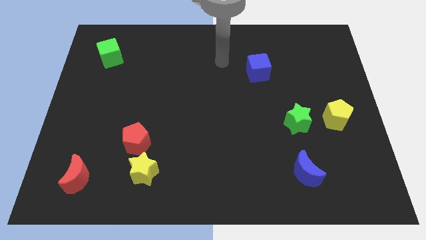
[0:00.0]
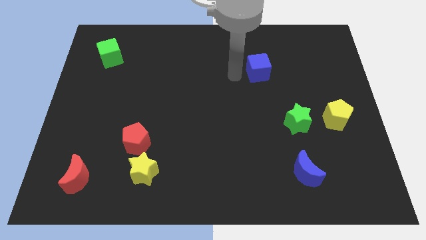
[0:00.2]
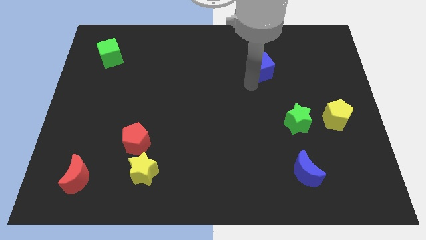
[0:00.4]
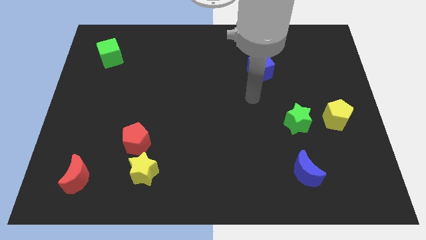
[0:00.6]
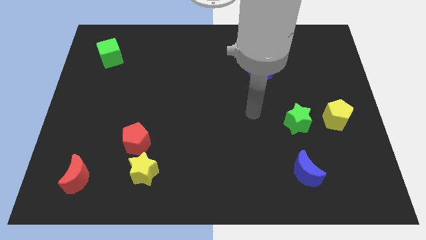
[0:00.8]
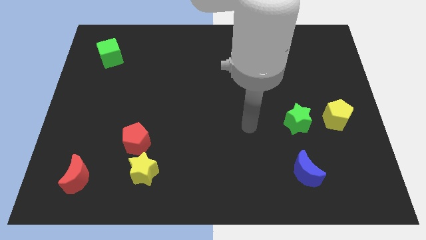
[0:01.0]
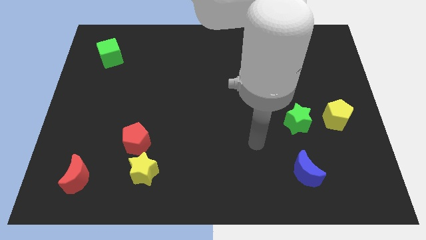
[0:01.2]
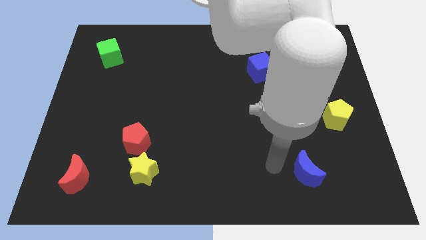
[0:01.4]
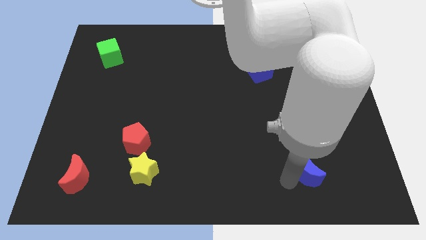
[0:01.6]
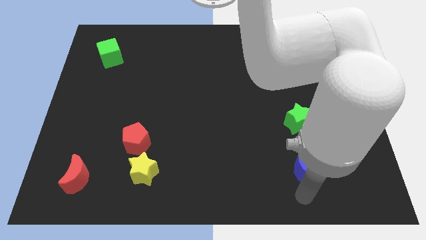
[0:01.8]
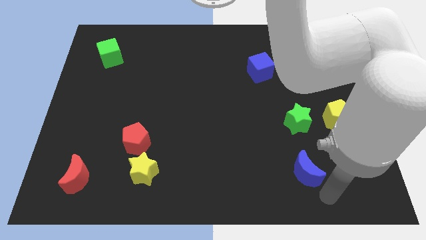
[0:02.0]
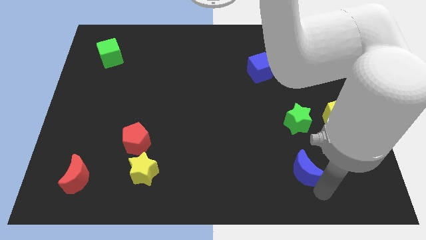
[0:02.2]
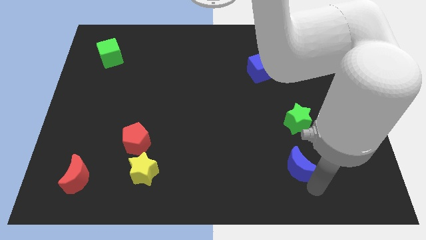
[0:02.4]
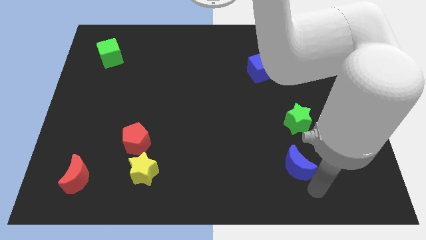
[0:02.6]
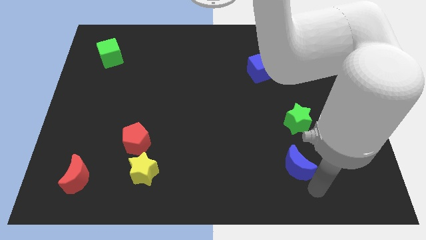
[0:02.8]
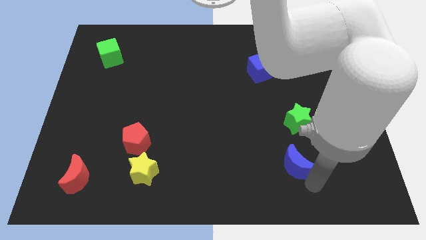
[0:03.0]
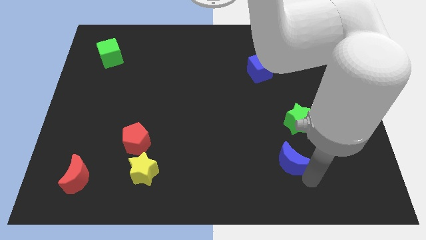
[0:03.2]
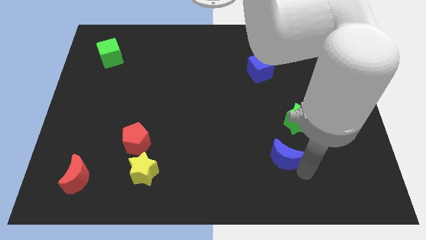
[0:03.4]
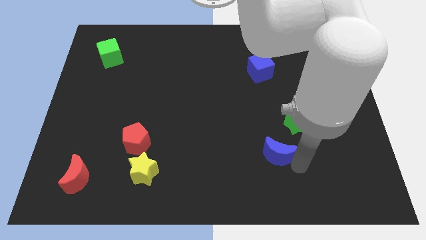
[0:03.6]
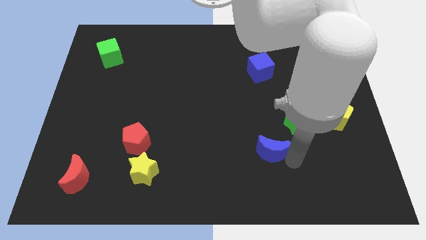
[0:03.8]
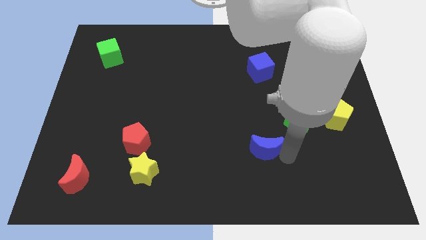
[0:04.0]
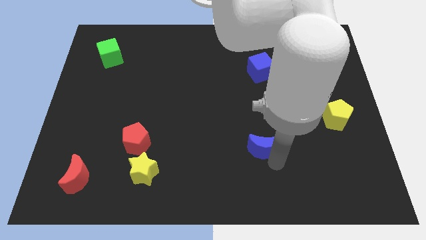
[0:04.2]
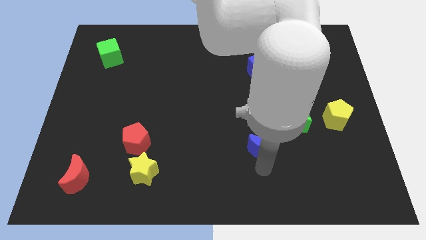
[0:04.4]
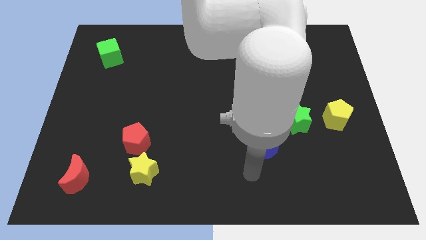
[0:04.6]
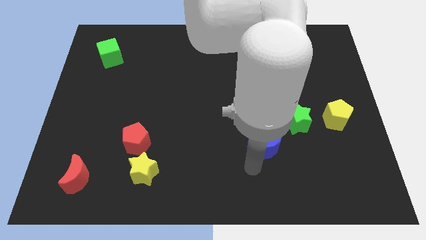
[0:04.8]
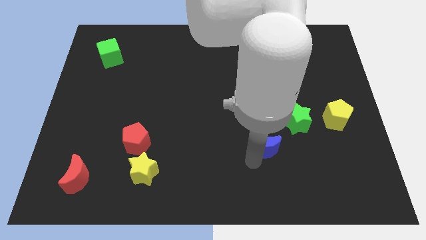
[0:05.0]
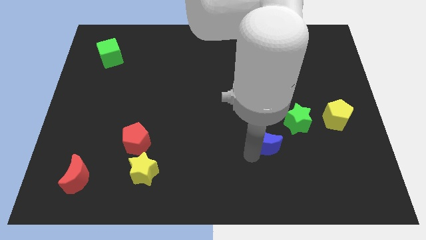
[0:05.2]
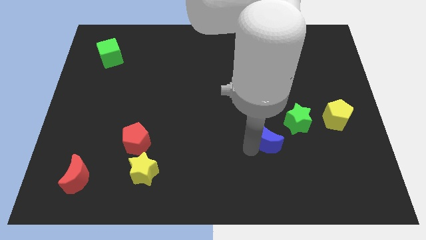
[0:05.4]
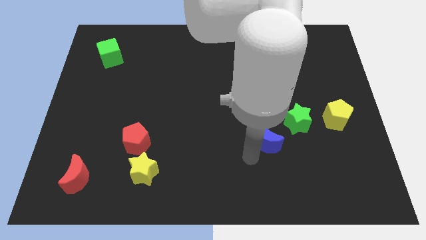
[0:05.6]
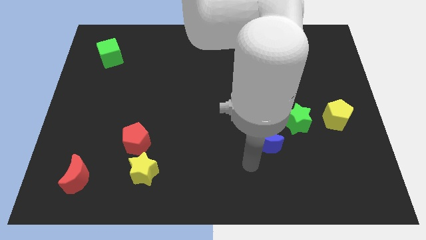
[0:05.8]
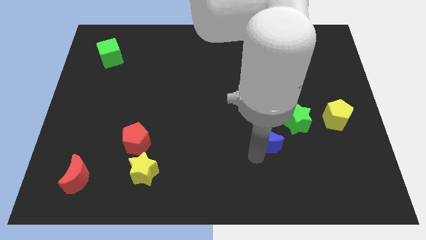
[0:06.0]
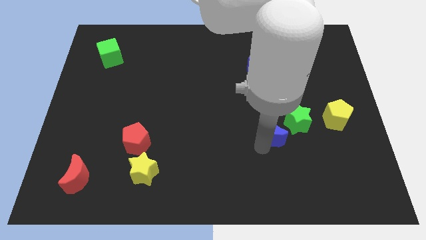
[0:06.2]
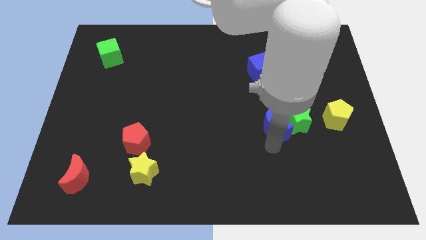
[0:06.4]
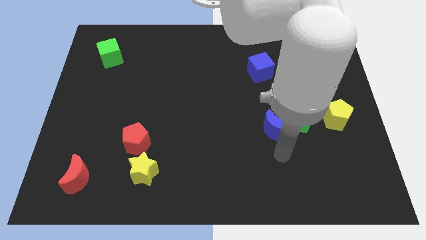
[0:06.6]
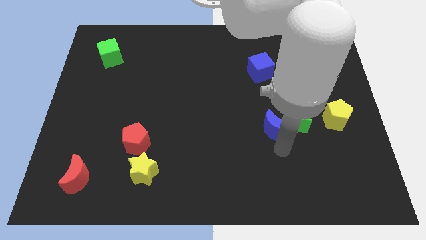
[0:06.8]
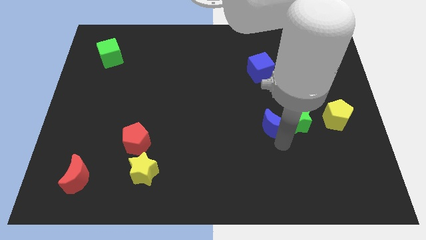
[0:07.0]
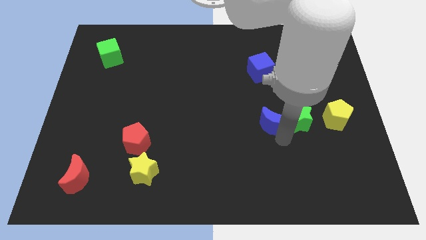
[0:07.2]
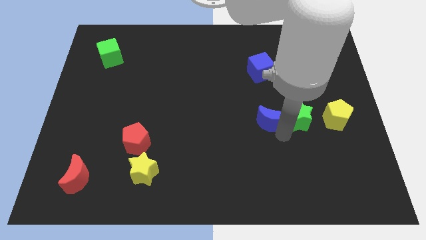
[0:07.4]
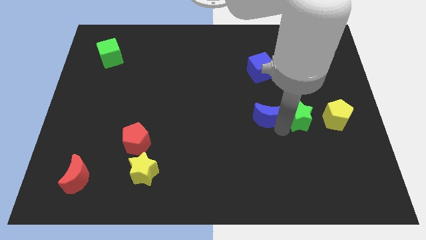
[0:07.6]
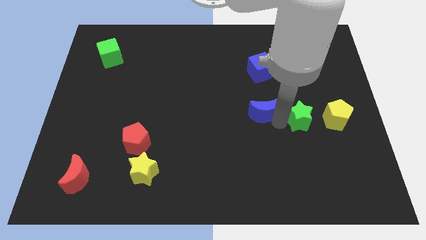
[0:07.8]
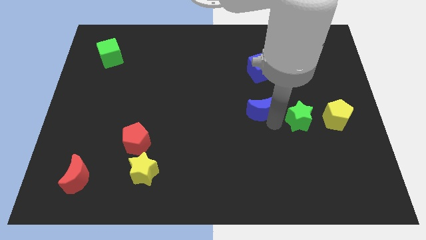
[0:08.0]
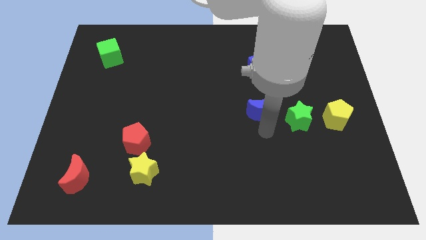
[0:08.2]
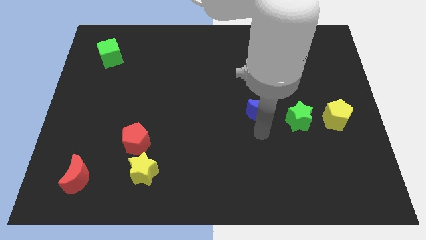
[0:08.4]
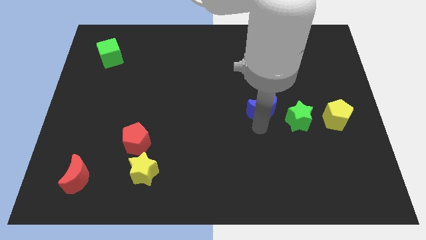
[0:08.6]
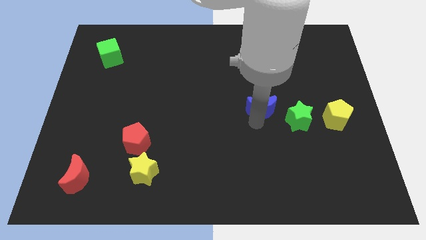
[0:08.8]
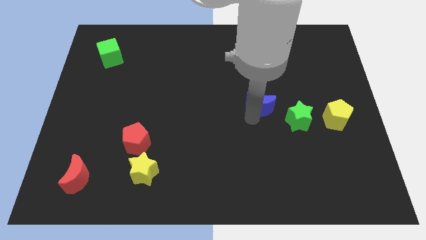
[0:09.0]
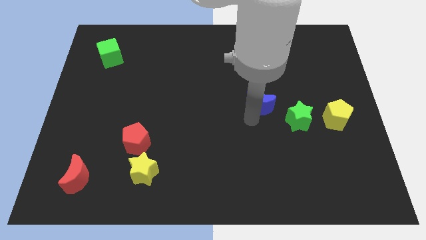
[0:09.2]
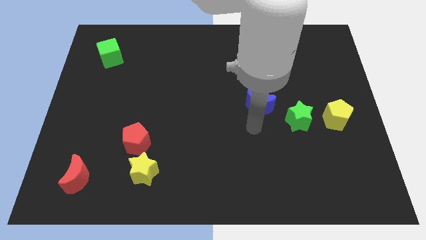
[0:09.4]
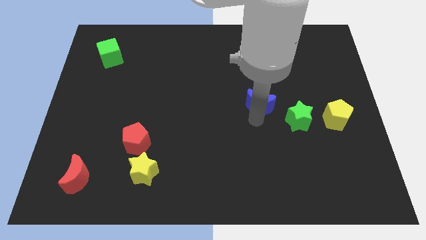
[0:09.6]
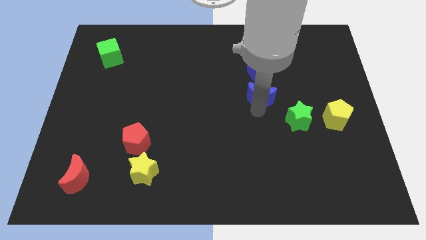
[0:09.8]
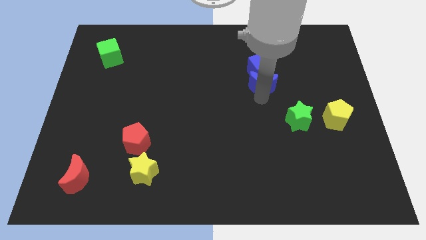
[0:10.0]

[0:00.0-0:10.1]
put the blue moon to the blue cube

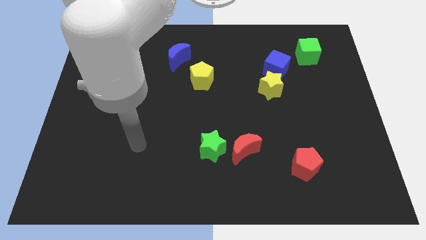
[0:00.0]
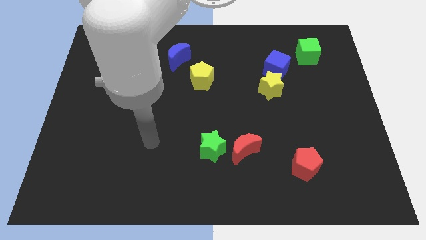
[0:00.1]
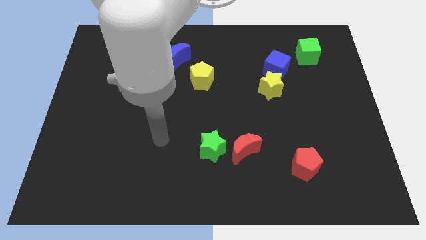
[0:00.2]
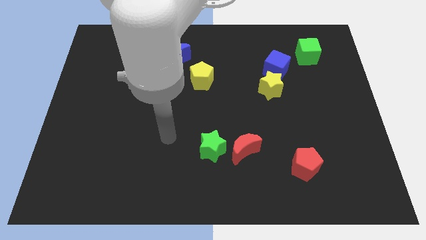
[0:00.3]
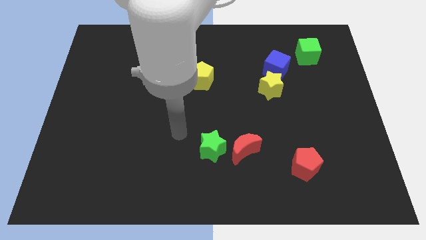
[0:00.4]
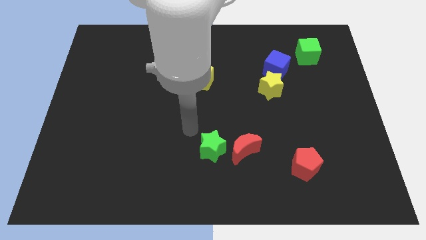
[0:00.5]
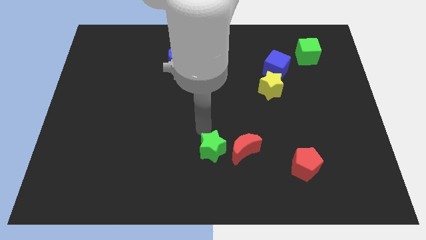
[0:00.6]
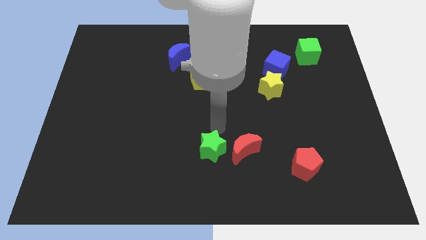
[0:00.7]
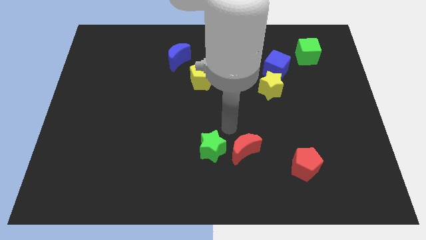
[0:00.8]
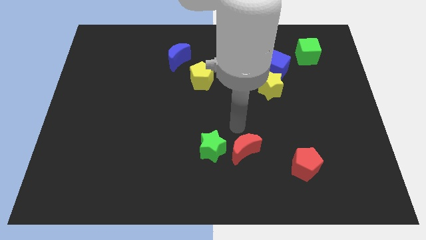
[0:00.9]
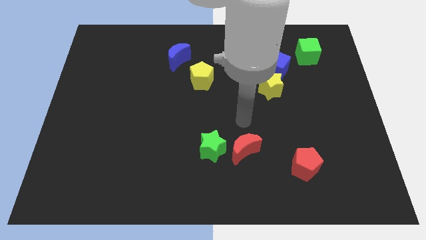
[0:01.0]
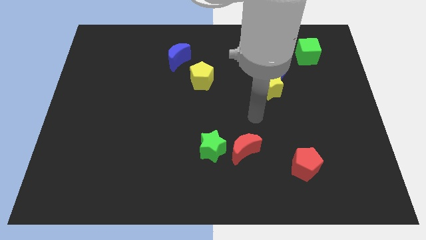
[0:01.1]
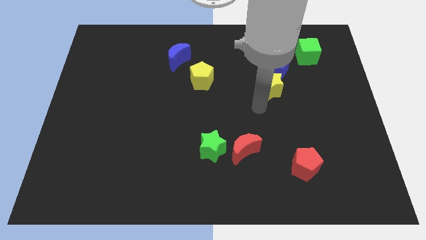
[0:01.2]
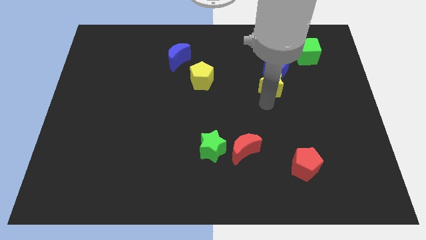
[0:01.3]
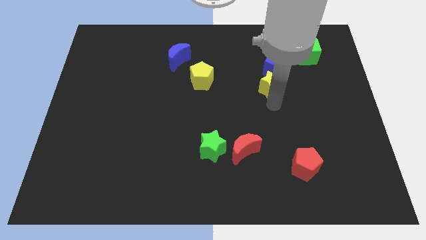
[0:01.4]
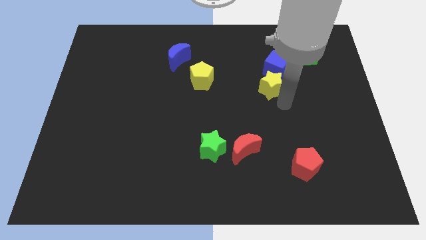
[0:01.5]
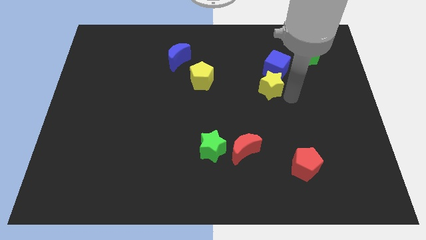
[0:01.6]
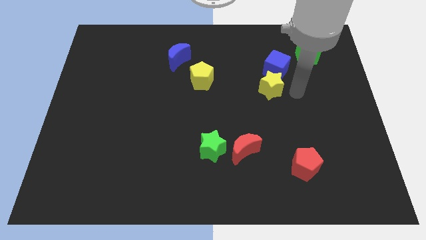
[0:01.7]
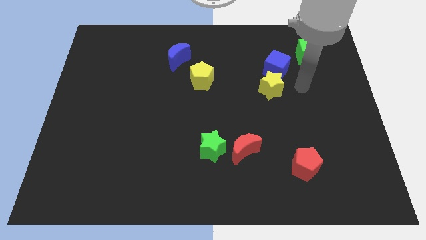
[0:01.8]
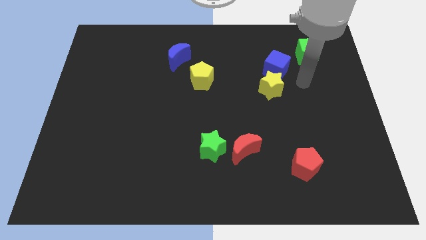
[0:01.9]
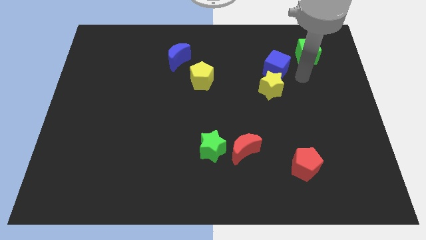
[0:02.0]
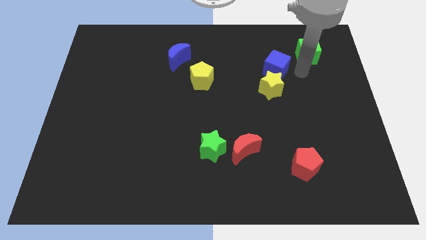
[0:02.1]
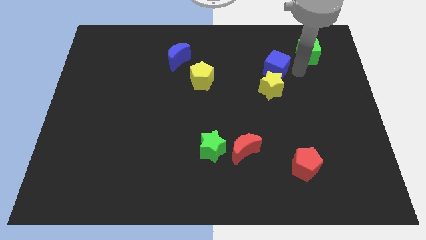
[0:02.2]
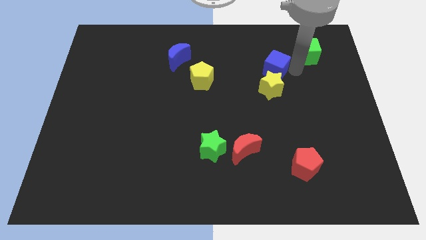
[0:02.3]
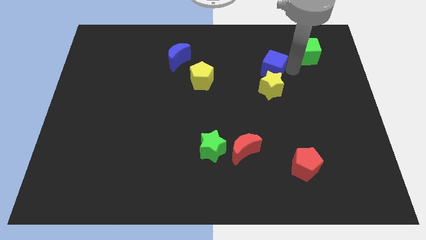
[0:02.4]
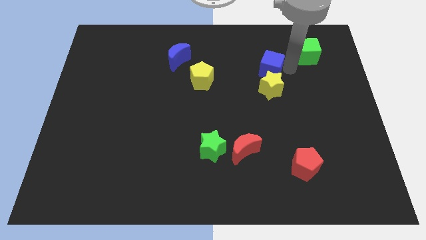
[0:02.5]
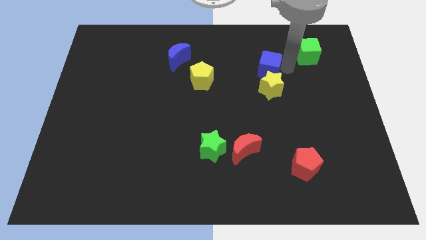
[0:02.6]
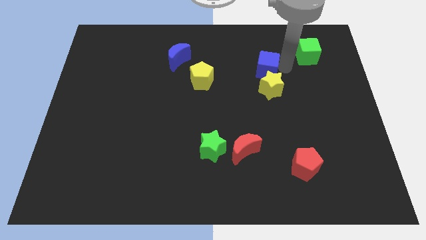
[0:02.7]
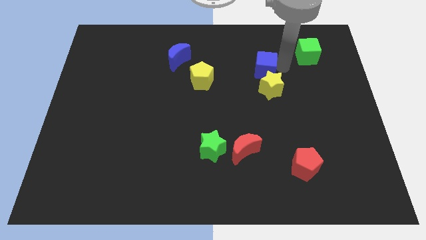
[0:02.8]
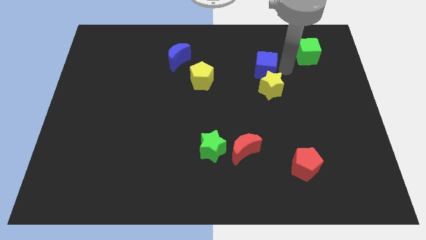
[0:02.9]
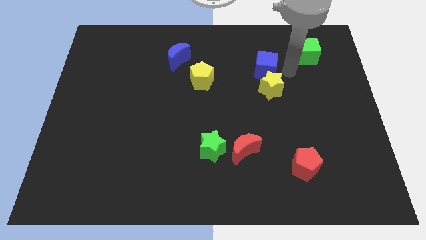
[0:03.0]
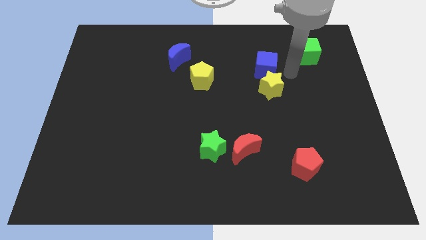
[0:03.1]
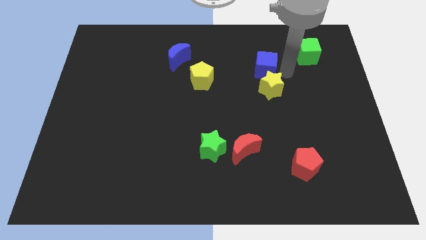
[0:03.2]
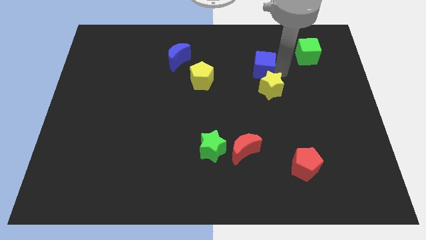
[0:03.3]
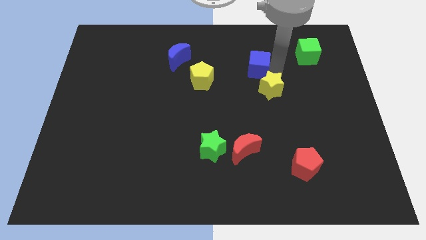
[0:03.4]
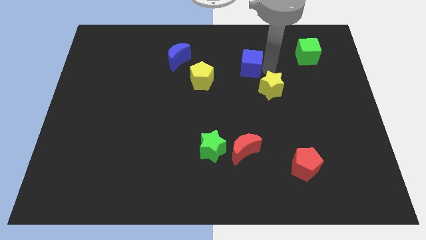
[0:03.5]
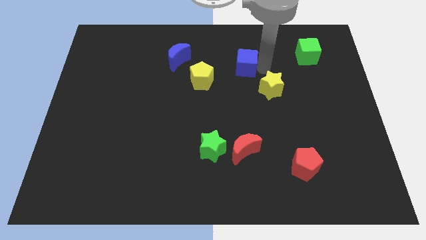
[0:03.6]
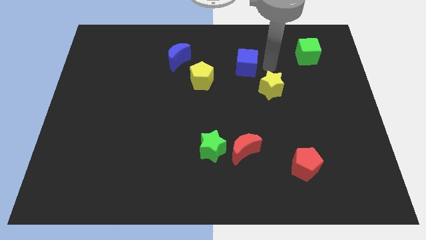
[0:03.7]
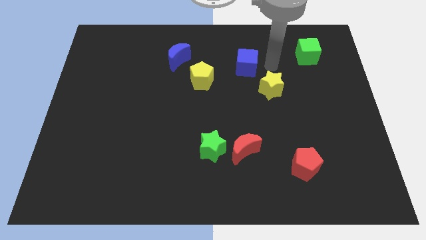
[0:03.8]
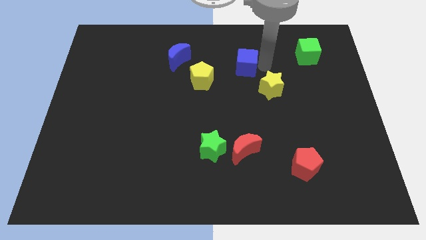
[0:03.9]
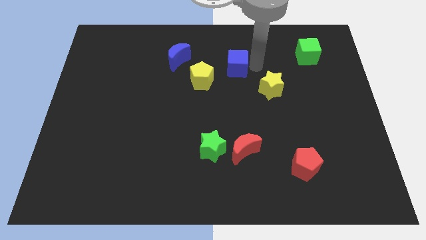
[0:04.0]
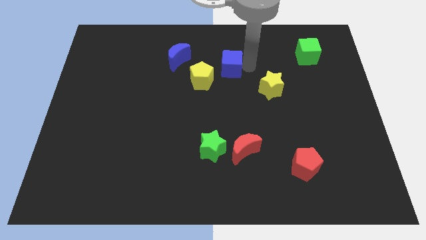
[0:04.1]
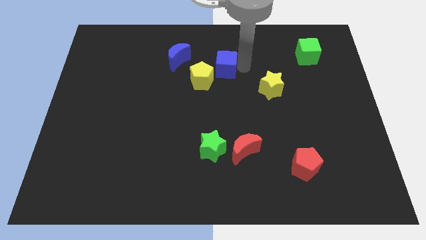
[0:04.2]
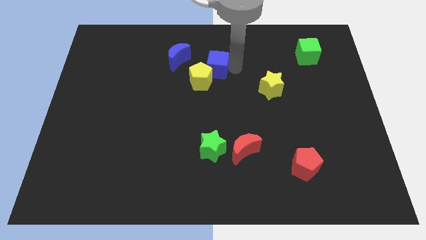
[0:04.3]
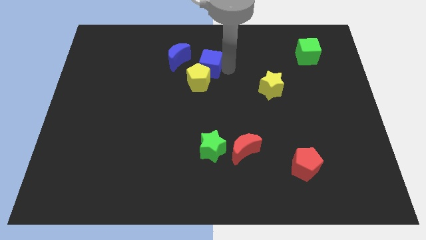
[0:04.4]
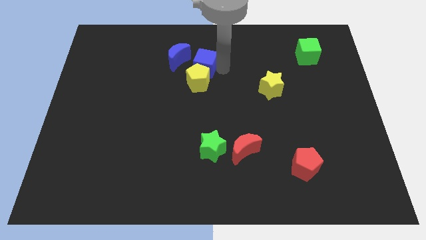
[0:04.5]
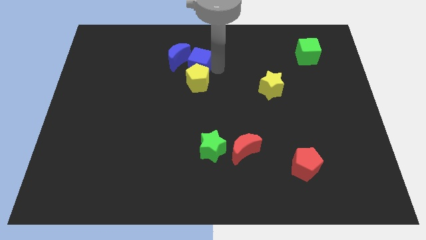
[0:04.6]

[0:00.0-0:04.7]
put the blue cube next to the blue moon
